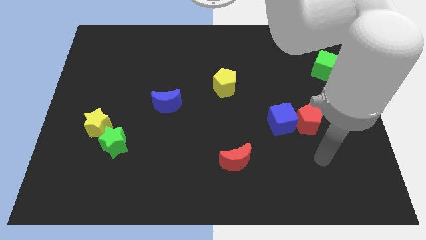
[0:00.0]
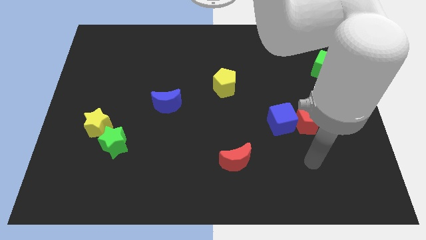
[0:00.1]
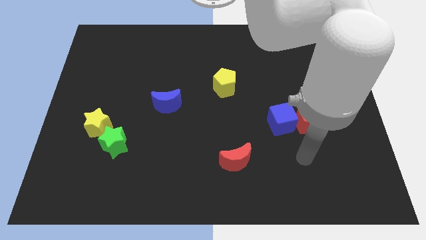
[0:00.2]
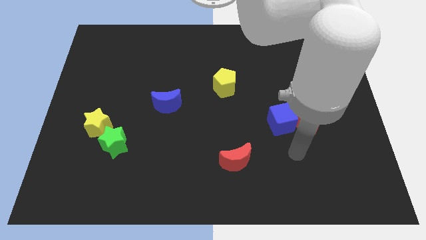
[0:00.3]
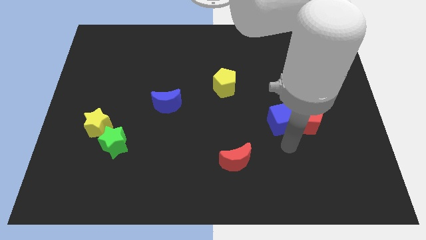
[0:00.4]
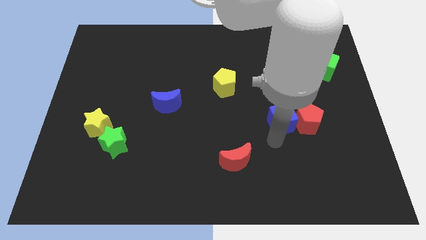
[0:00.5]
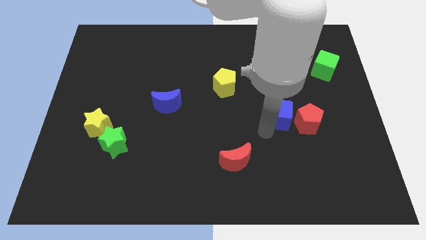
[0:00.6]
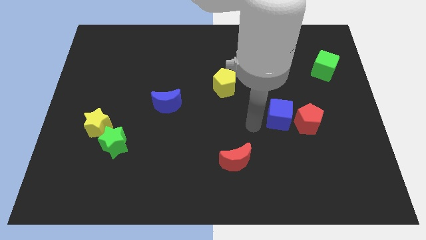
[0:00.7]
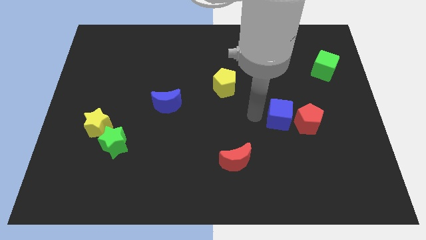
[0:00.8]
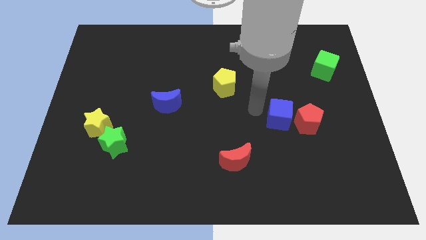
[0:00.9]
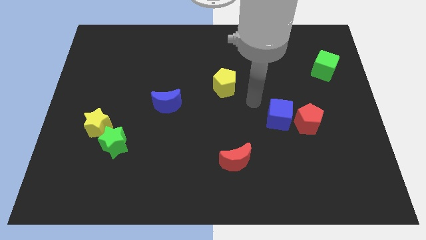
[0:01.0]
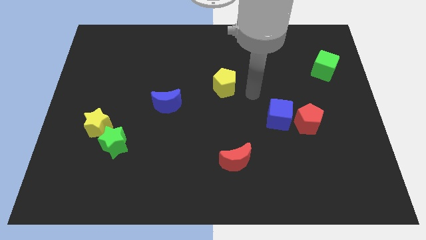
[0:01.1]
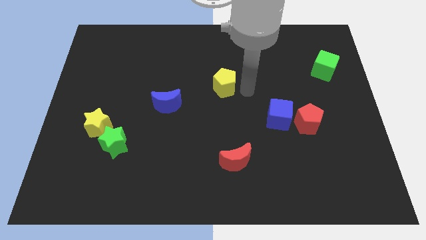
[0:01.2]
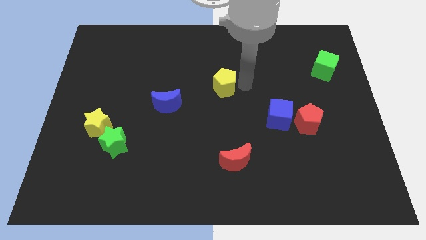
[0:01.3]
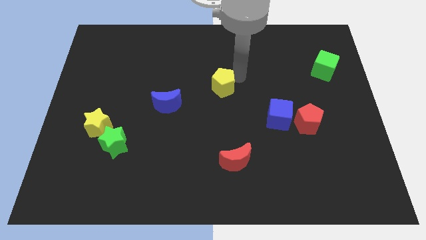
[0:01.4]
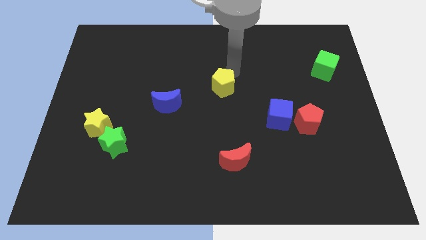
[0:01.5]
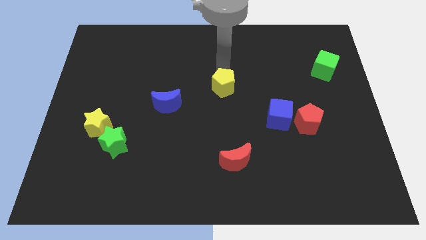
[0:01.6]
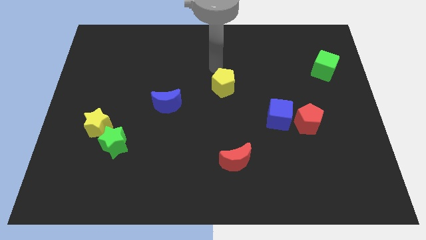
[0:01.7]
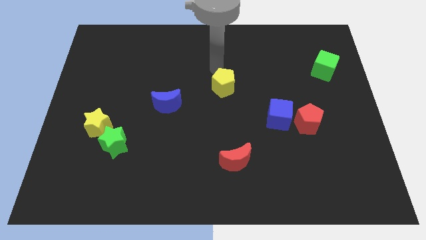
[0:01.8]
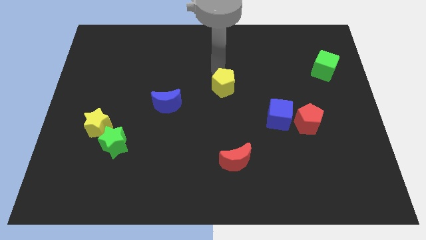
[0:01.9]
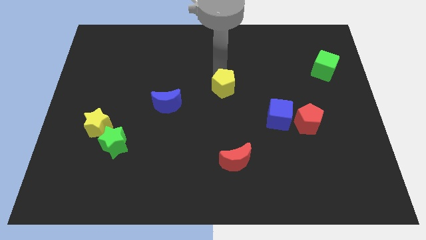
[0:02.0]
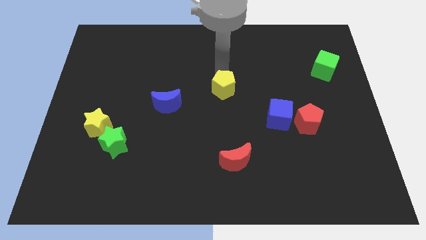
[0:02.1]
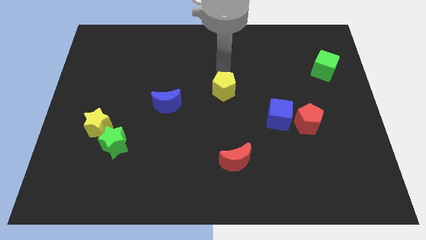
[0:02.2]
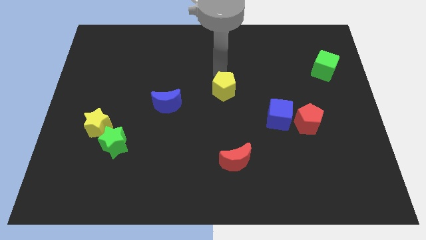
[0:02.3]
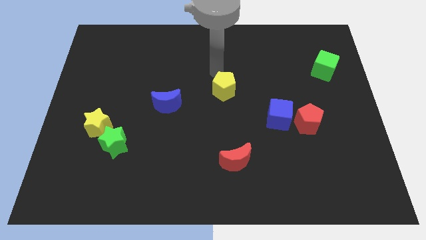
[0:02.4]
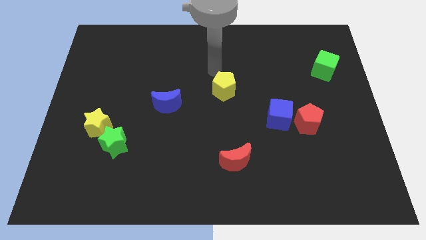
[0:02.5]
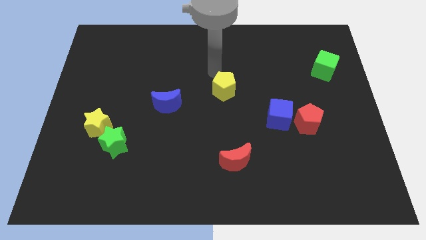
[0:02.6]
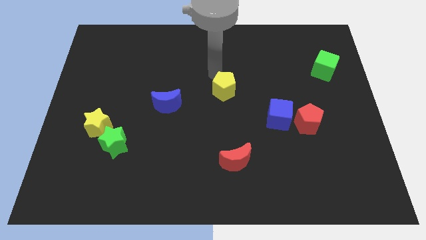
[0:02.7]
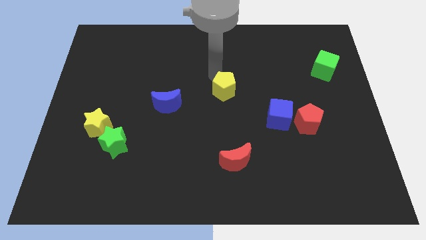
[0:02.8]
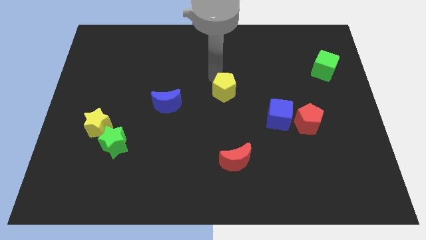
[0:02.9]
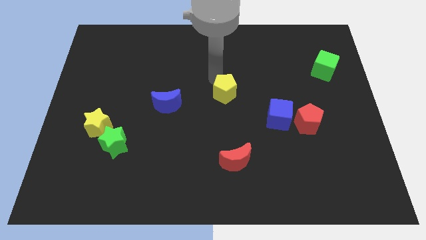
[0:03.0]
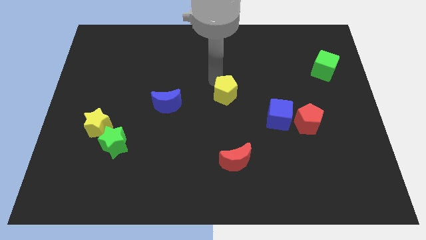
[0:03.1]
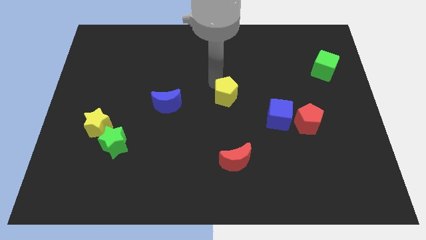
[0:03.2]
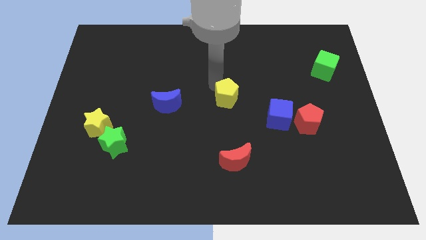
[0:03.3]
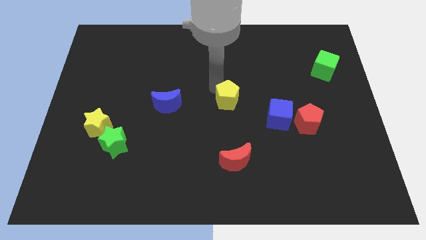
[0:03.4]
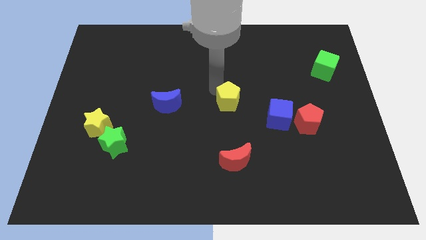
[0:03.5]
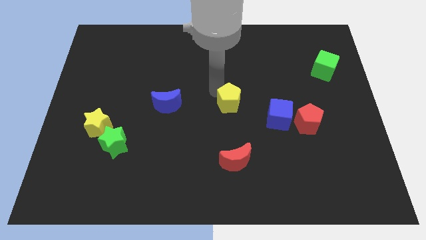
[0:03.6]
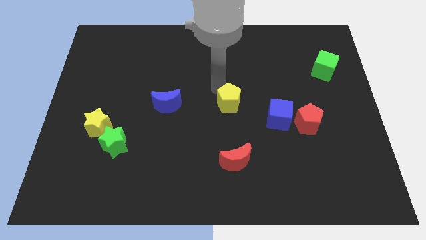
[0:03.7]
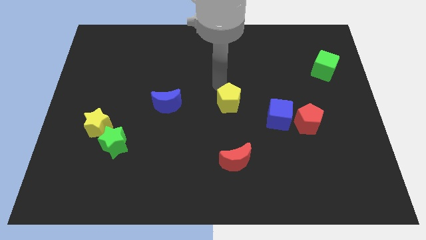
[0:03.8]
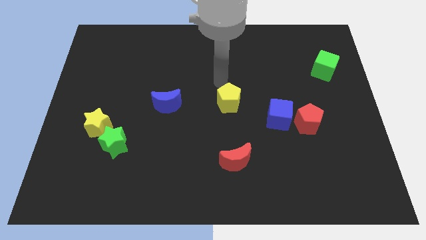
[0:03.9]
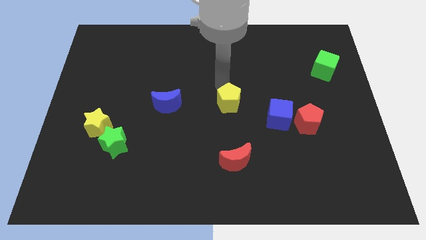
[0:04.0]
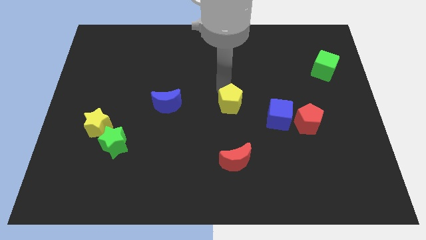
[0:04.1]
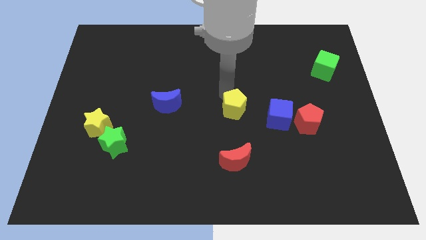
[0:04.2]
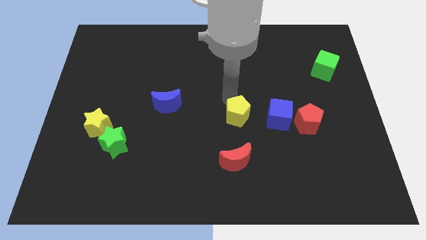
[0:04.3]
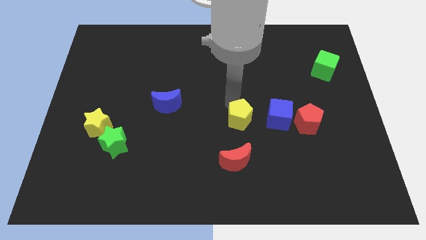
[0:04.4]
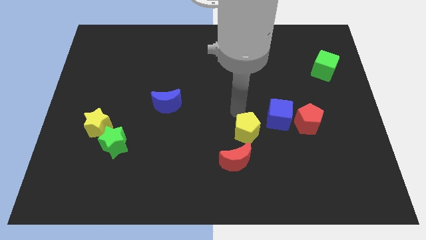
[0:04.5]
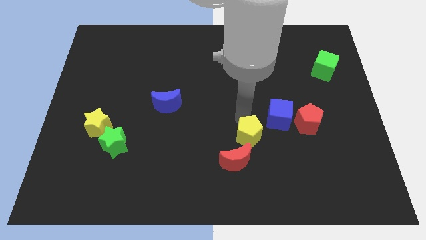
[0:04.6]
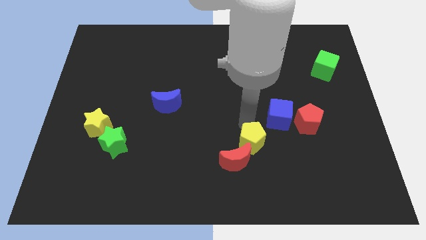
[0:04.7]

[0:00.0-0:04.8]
put the yellow pentagon towards the red moon

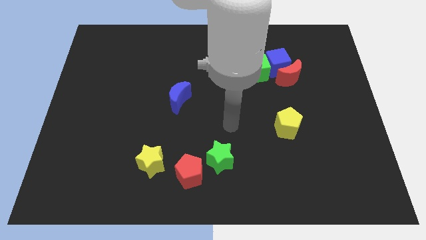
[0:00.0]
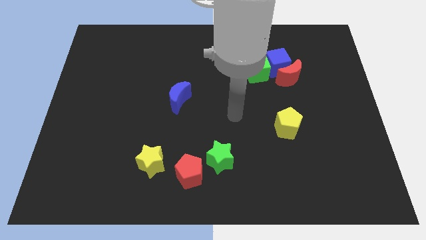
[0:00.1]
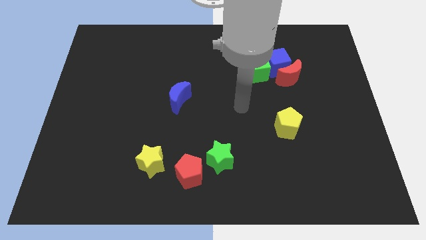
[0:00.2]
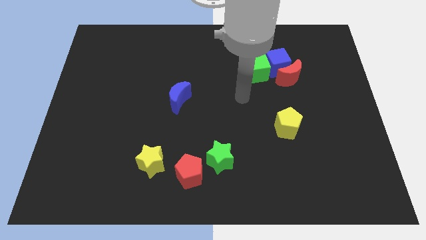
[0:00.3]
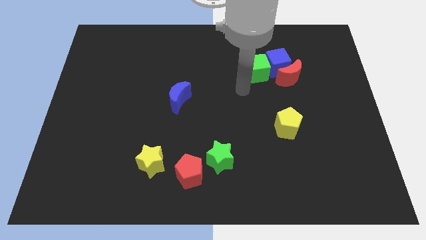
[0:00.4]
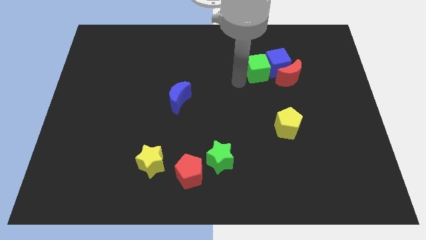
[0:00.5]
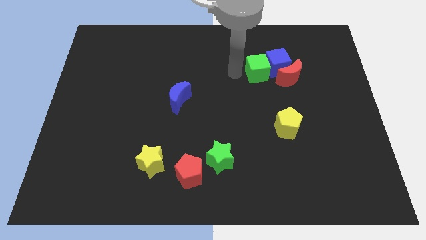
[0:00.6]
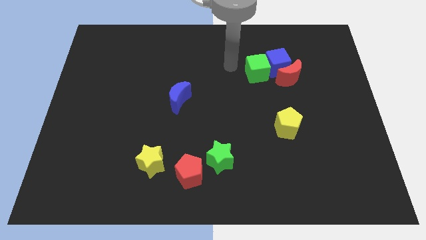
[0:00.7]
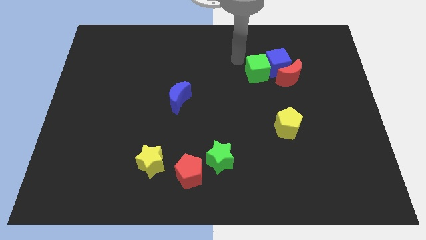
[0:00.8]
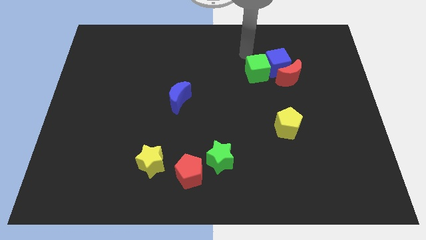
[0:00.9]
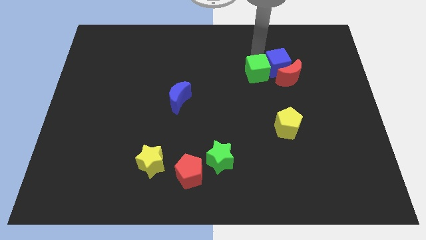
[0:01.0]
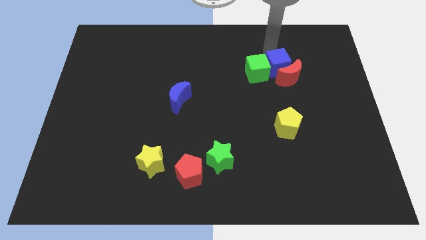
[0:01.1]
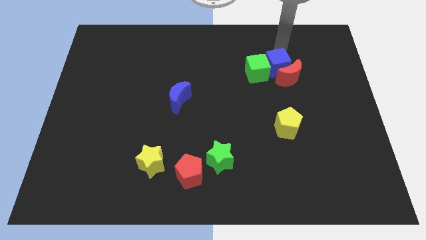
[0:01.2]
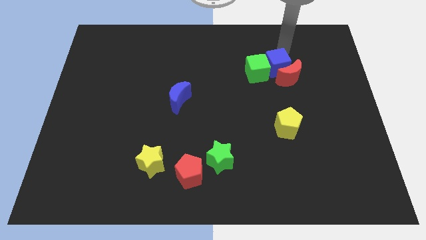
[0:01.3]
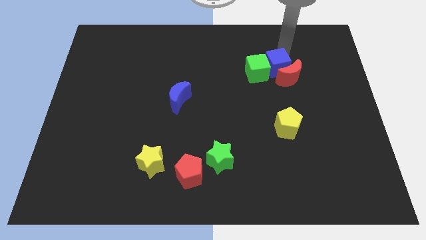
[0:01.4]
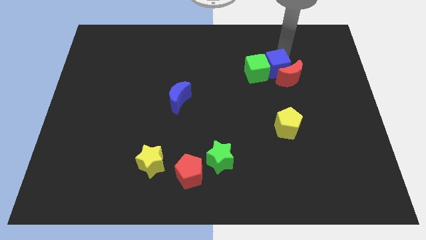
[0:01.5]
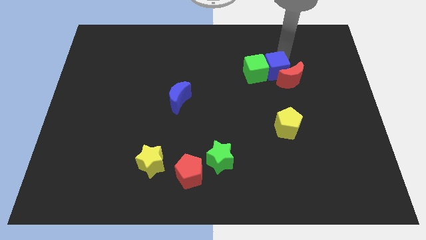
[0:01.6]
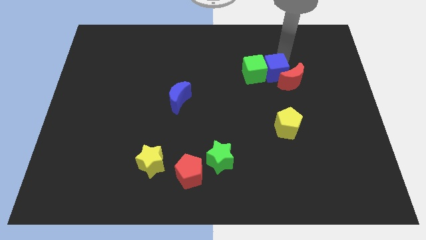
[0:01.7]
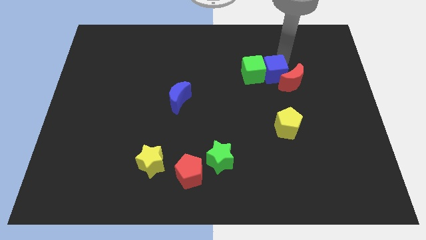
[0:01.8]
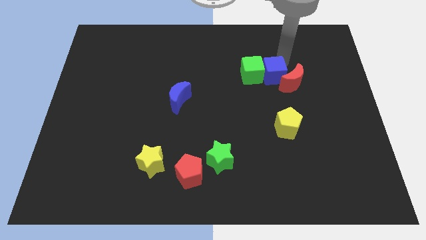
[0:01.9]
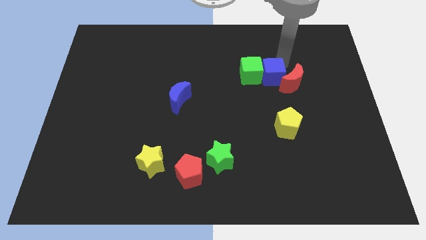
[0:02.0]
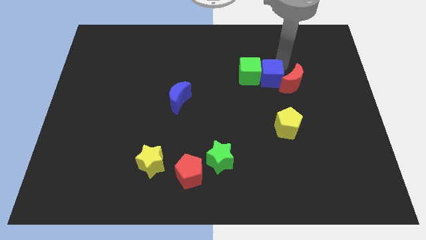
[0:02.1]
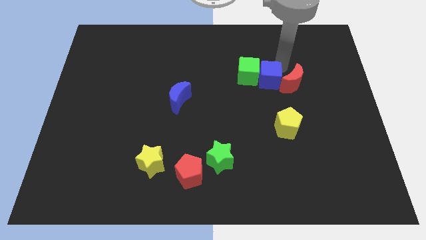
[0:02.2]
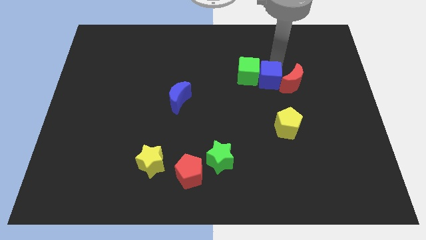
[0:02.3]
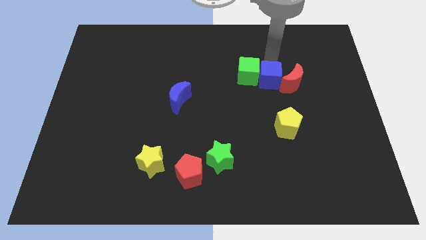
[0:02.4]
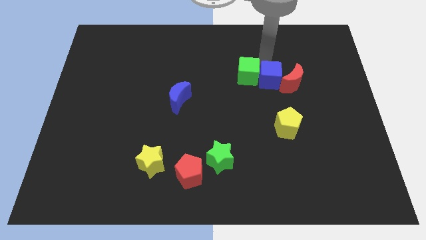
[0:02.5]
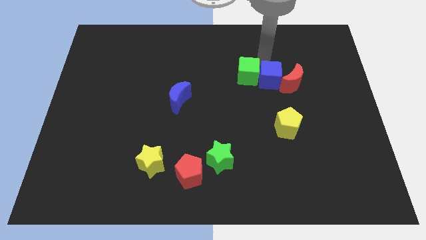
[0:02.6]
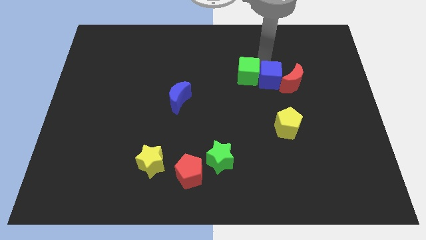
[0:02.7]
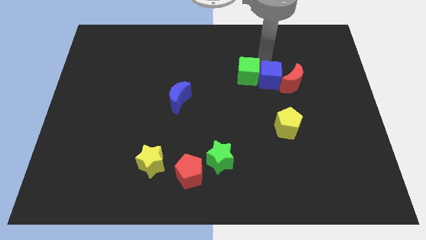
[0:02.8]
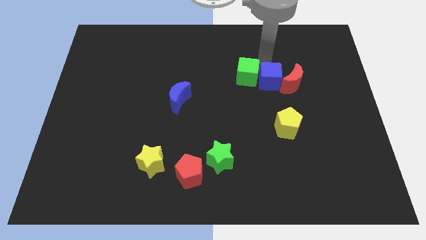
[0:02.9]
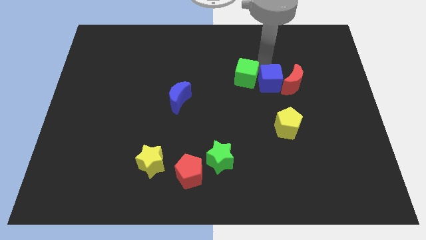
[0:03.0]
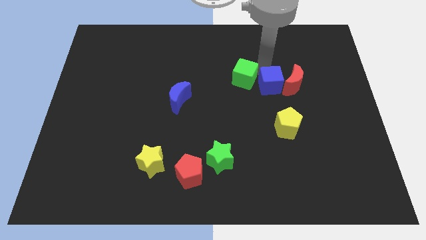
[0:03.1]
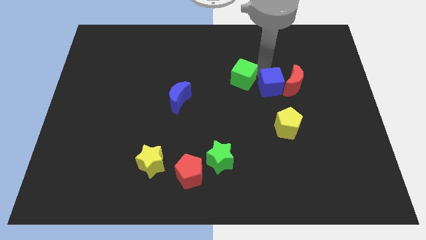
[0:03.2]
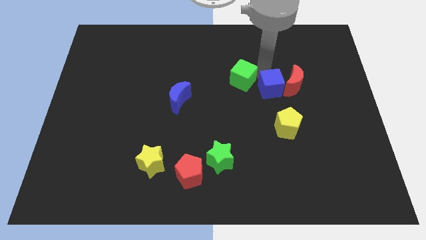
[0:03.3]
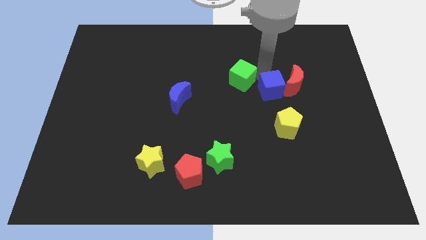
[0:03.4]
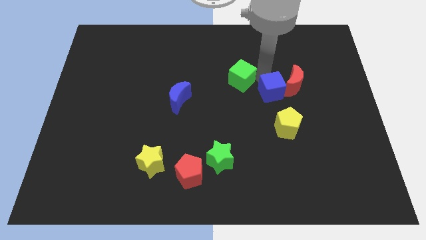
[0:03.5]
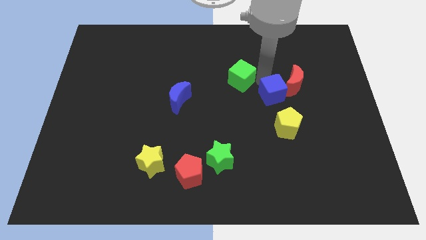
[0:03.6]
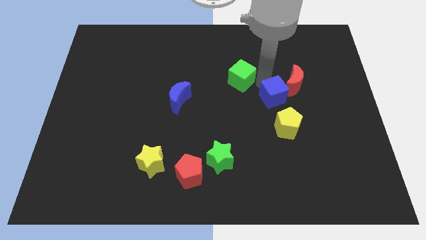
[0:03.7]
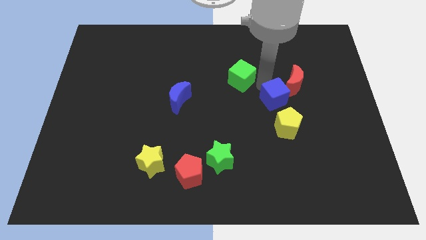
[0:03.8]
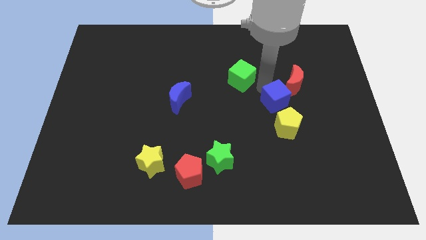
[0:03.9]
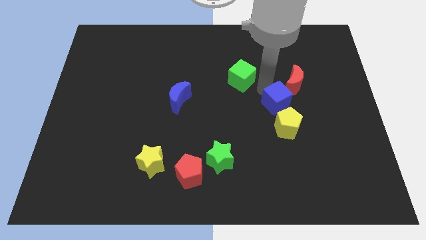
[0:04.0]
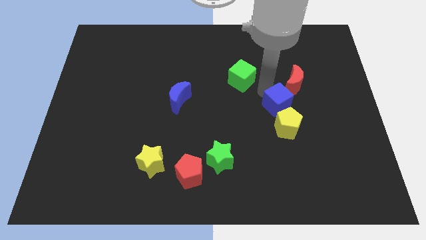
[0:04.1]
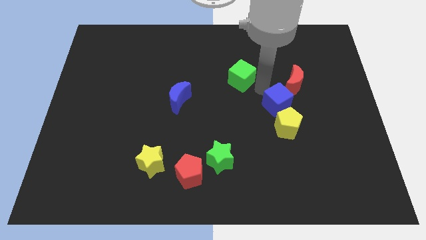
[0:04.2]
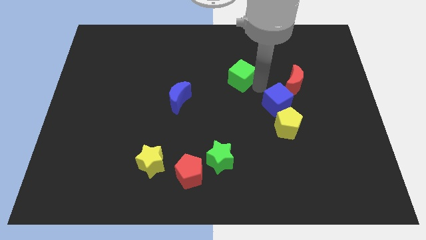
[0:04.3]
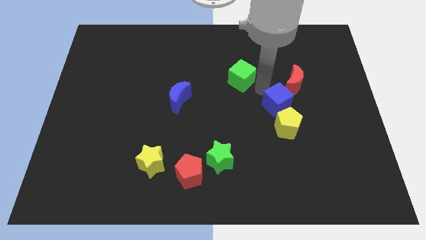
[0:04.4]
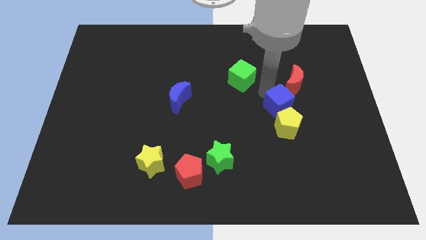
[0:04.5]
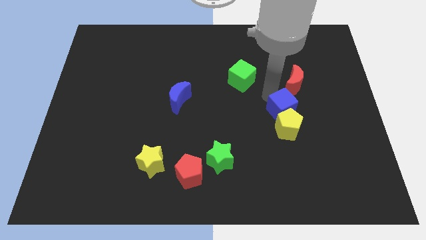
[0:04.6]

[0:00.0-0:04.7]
push the blue cube next to the yellow pentagon
